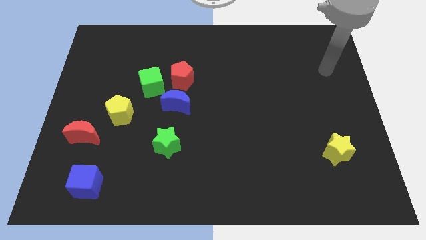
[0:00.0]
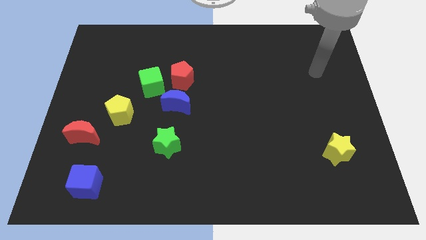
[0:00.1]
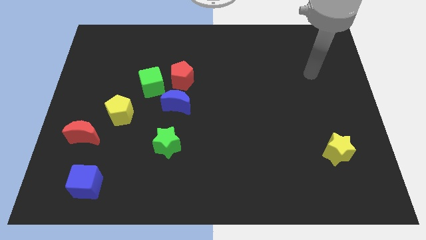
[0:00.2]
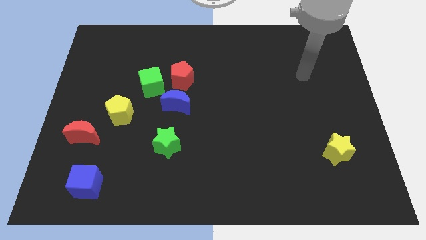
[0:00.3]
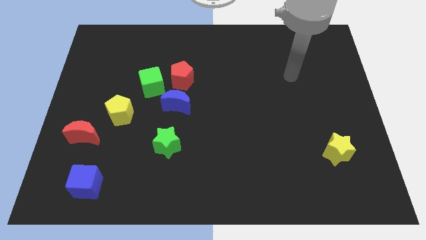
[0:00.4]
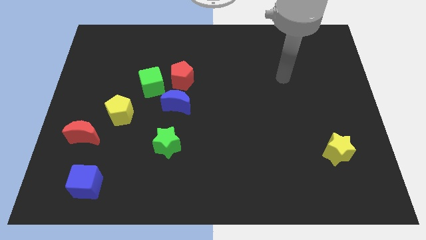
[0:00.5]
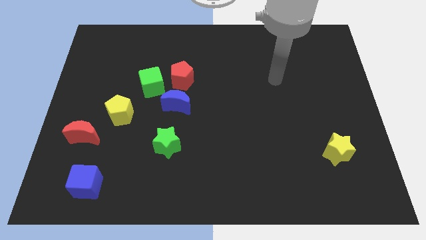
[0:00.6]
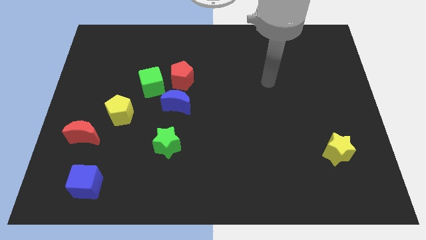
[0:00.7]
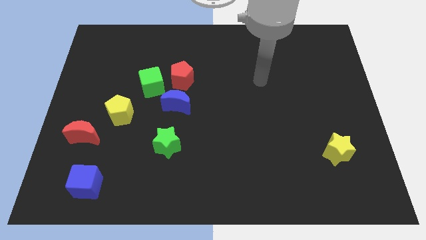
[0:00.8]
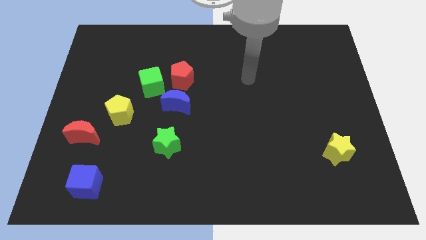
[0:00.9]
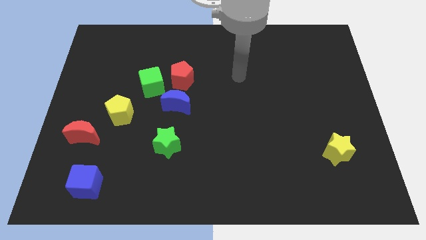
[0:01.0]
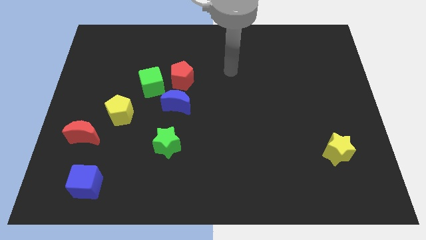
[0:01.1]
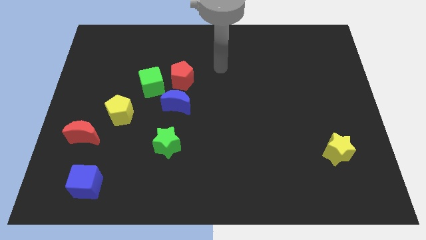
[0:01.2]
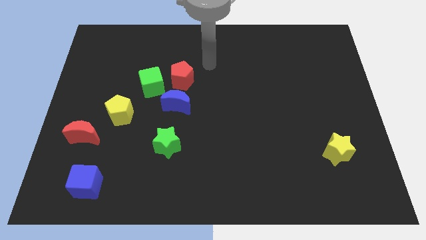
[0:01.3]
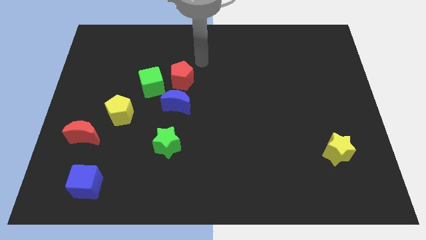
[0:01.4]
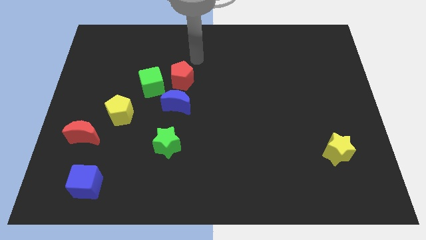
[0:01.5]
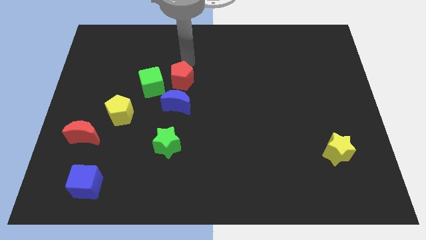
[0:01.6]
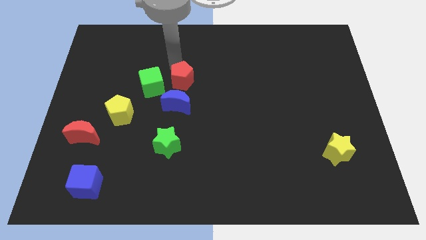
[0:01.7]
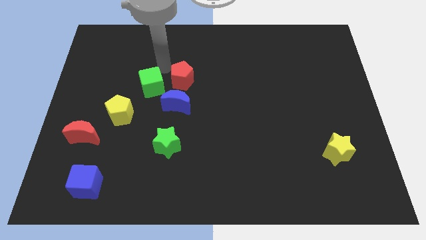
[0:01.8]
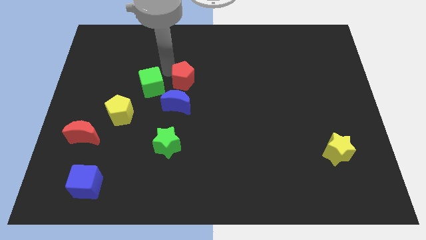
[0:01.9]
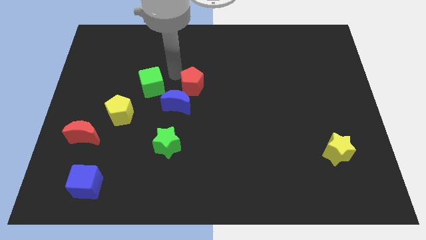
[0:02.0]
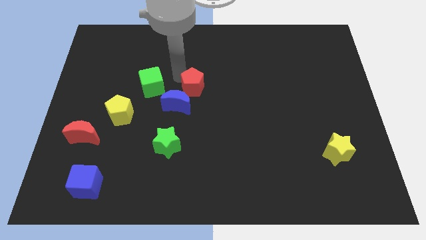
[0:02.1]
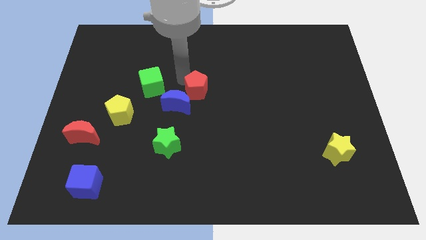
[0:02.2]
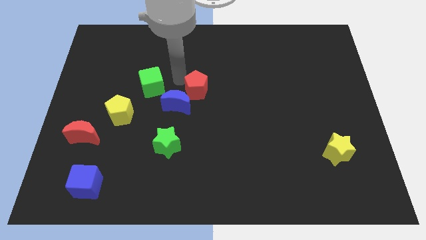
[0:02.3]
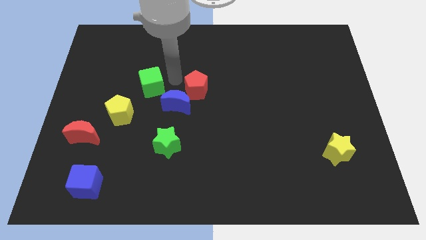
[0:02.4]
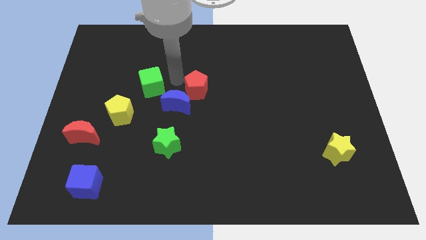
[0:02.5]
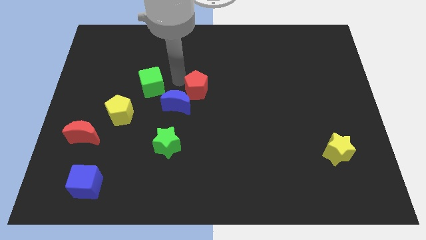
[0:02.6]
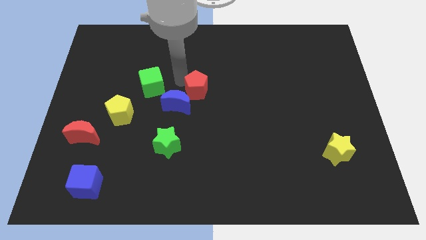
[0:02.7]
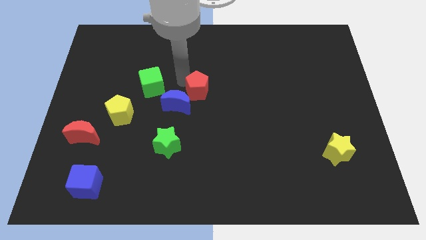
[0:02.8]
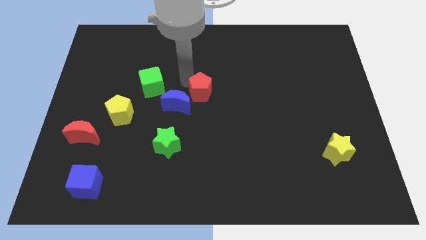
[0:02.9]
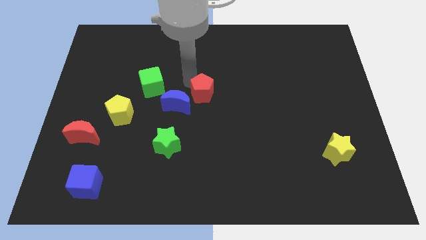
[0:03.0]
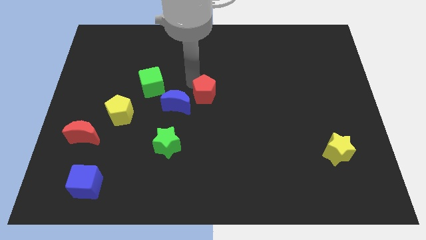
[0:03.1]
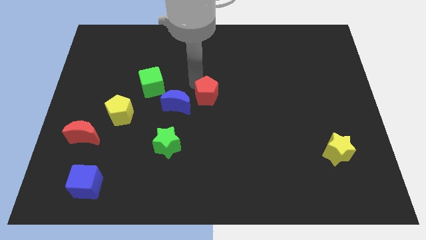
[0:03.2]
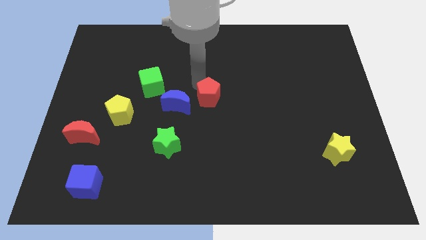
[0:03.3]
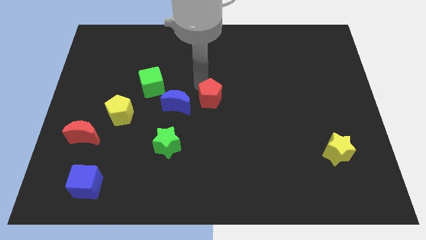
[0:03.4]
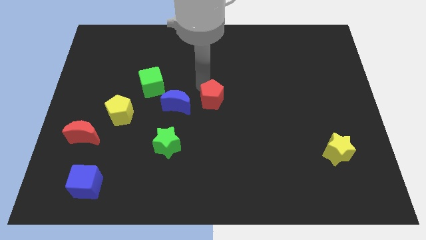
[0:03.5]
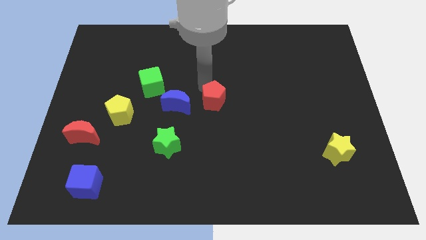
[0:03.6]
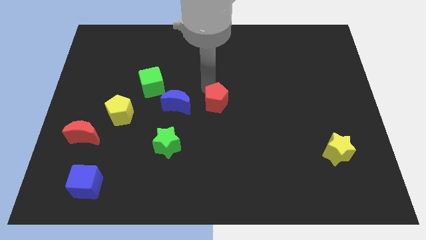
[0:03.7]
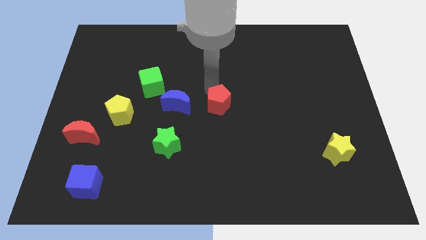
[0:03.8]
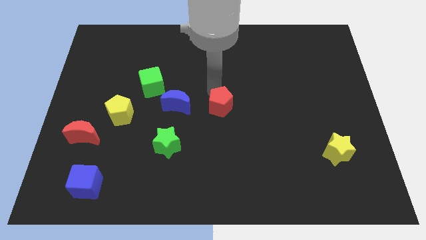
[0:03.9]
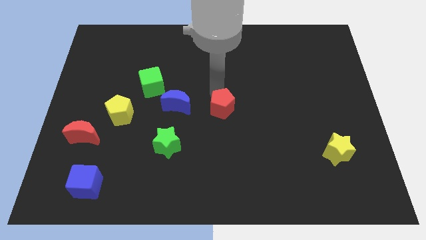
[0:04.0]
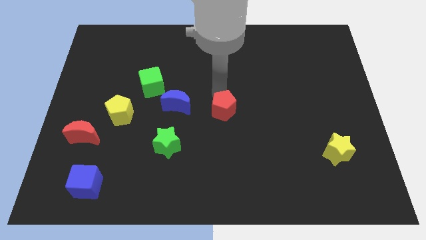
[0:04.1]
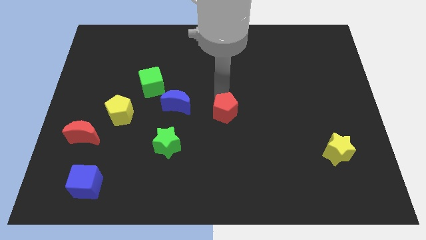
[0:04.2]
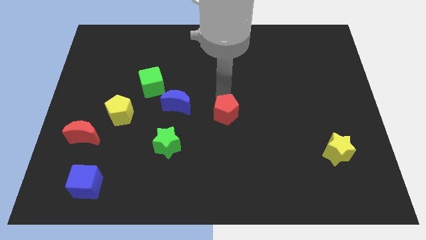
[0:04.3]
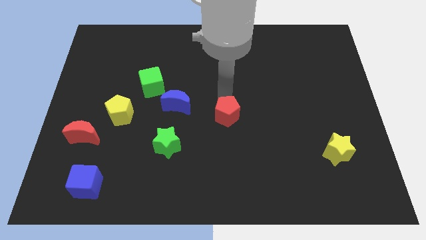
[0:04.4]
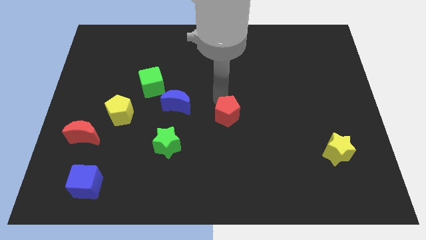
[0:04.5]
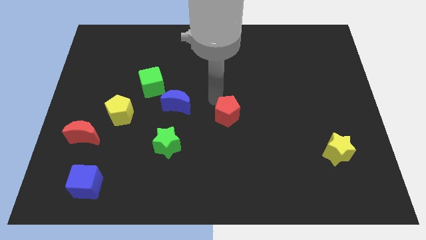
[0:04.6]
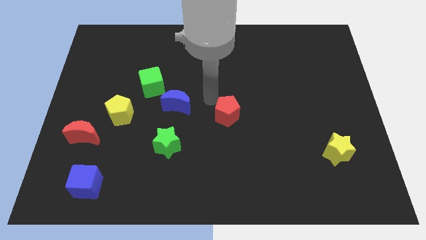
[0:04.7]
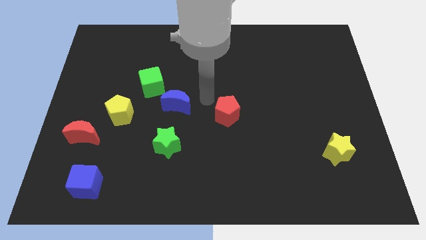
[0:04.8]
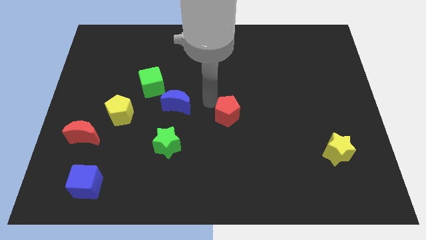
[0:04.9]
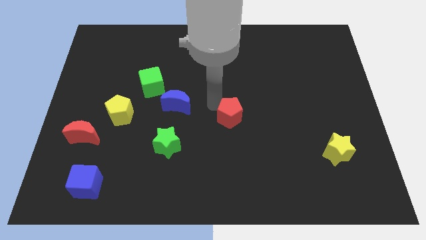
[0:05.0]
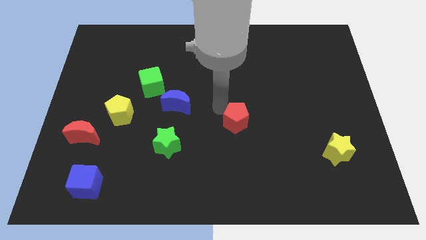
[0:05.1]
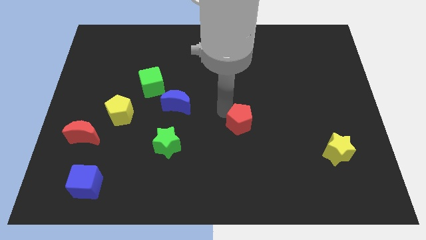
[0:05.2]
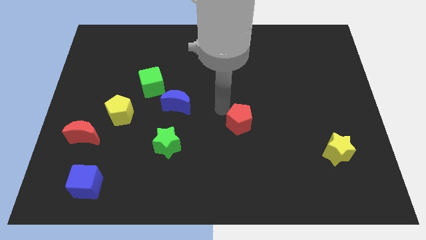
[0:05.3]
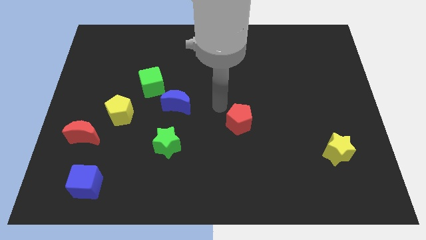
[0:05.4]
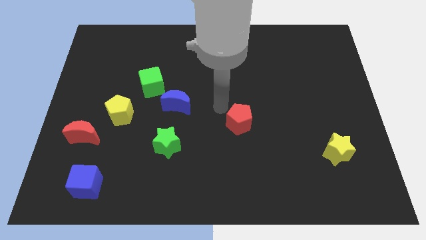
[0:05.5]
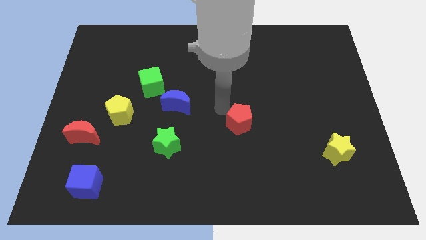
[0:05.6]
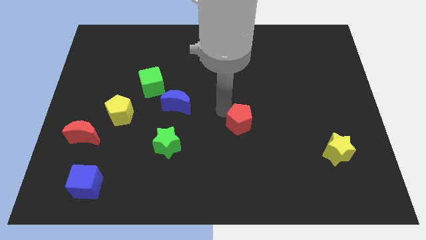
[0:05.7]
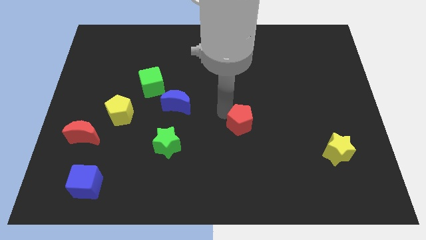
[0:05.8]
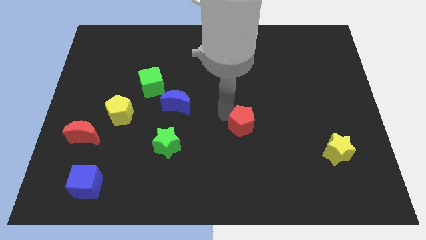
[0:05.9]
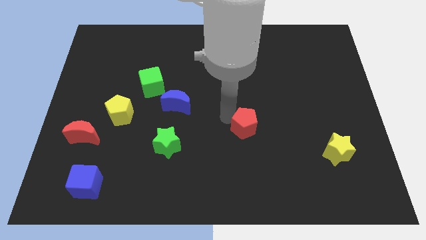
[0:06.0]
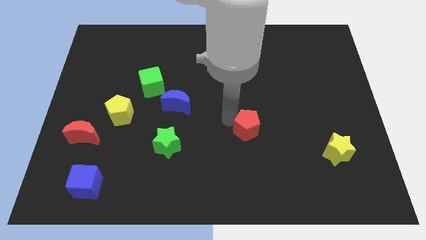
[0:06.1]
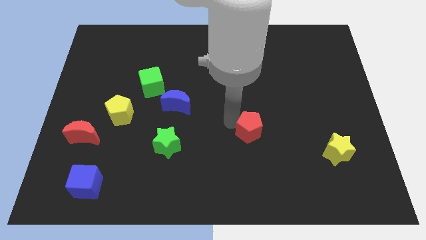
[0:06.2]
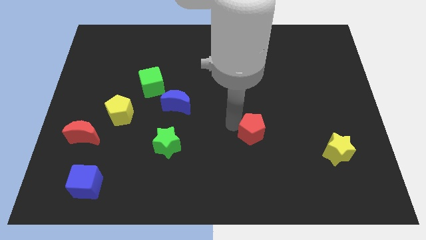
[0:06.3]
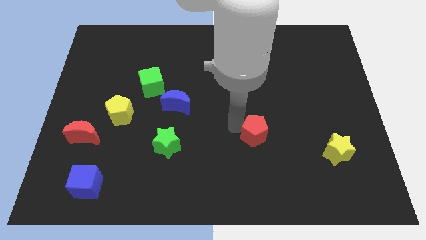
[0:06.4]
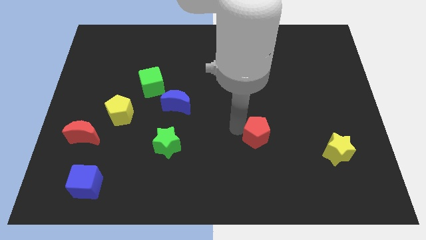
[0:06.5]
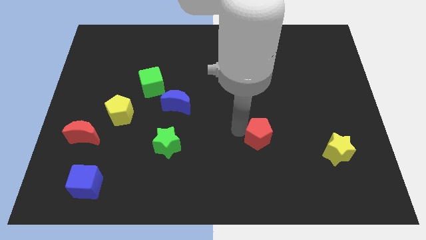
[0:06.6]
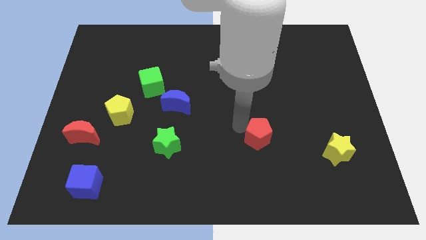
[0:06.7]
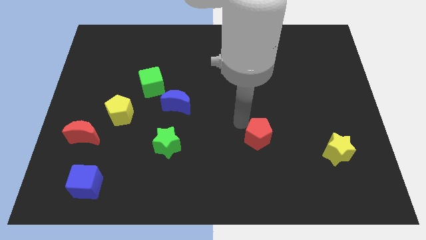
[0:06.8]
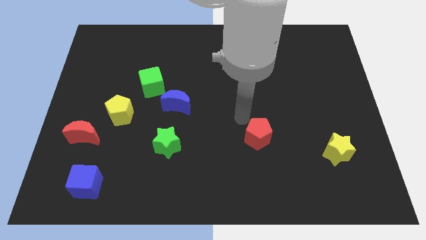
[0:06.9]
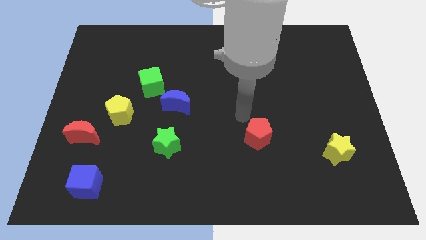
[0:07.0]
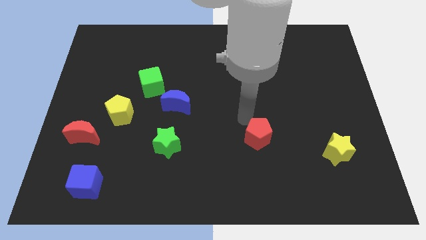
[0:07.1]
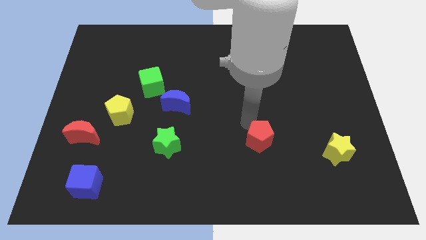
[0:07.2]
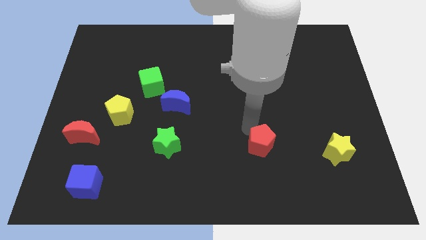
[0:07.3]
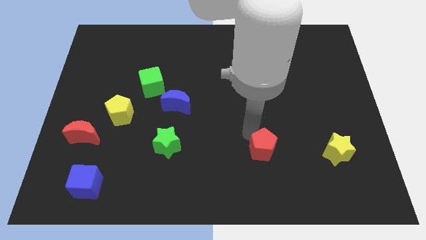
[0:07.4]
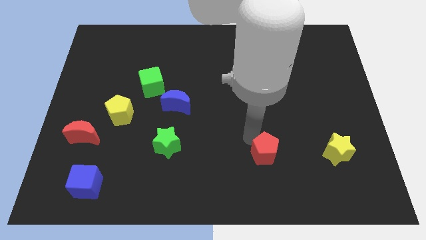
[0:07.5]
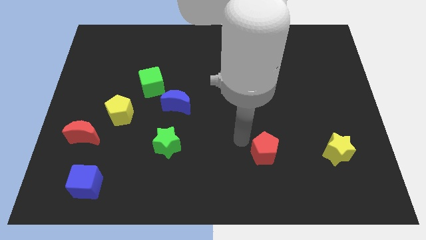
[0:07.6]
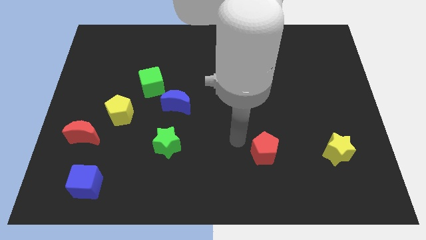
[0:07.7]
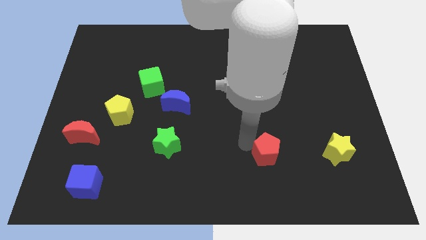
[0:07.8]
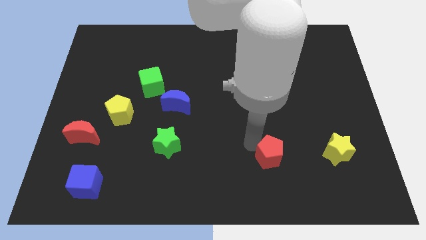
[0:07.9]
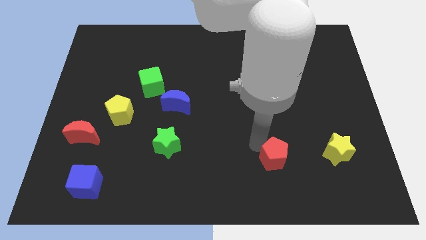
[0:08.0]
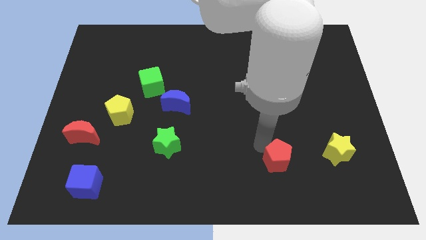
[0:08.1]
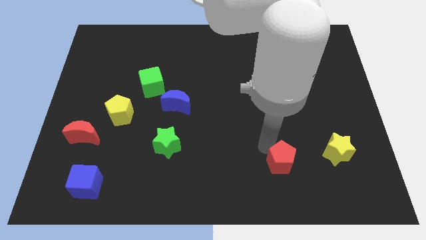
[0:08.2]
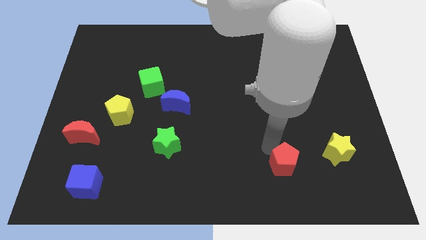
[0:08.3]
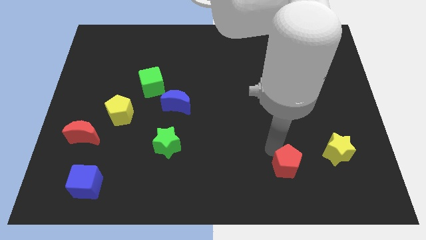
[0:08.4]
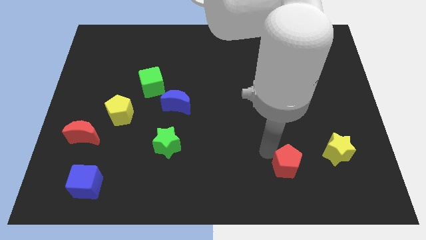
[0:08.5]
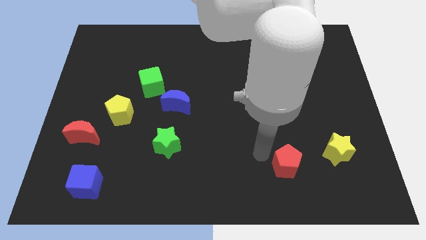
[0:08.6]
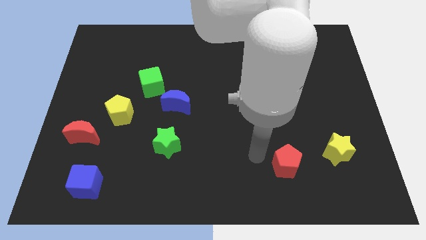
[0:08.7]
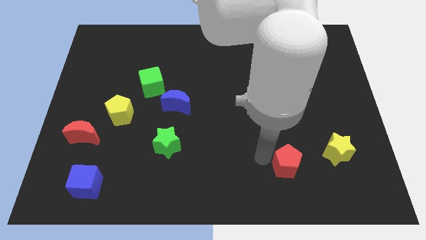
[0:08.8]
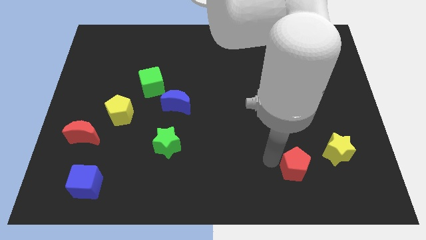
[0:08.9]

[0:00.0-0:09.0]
put the red pentagon diagonally down and to the left of the yellow star
